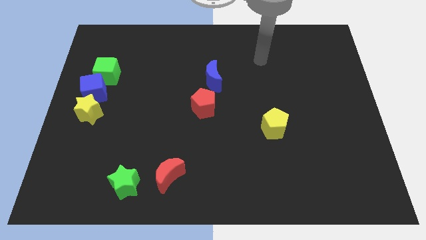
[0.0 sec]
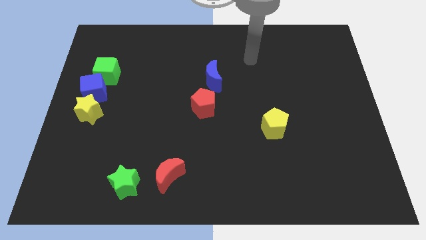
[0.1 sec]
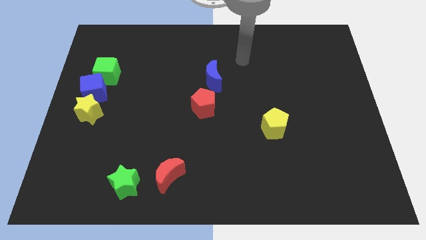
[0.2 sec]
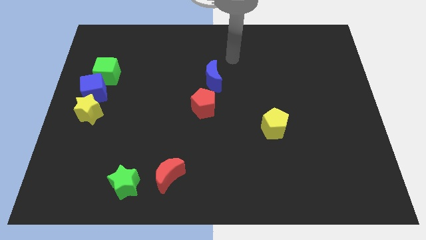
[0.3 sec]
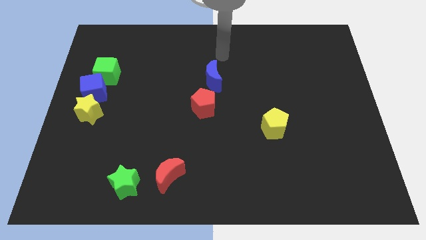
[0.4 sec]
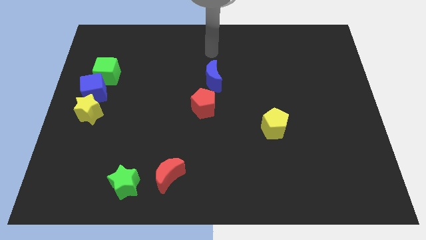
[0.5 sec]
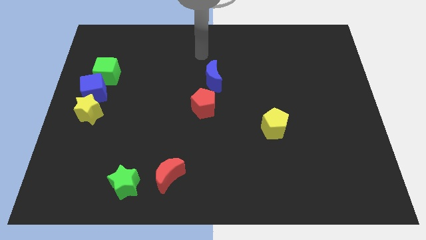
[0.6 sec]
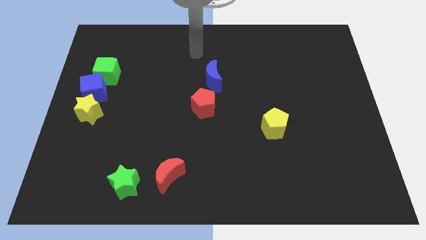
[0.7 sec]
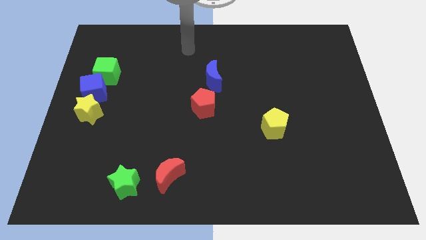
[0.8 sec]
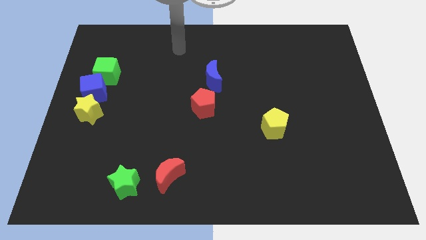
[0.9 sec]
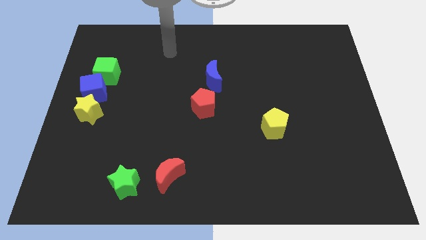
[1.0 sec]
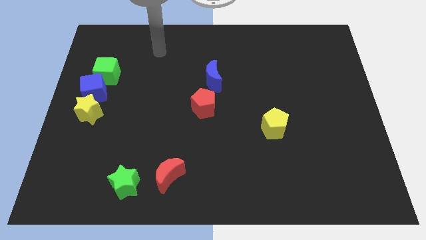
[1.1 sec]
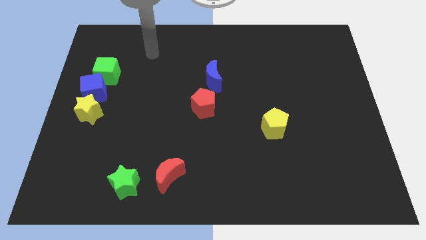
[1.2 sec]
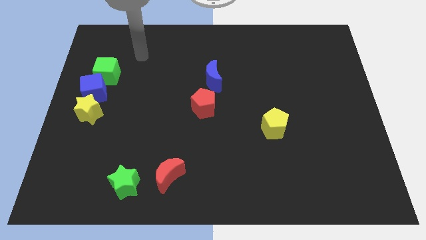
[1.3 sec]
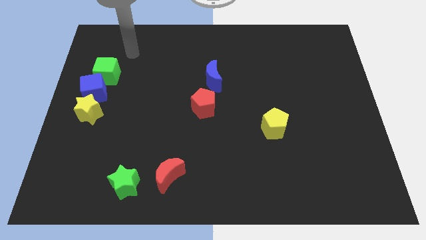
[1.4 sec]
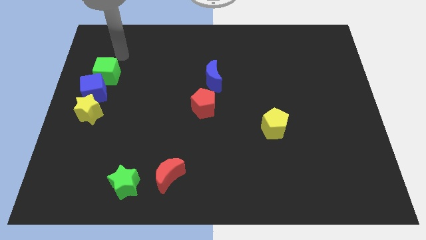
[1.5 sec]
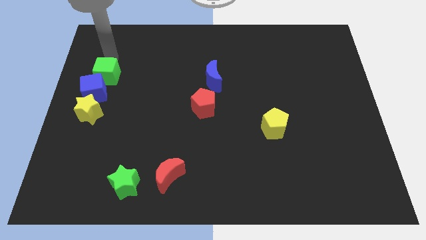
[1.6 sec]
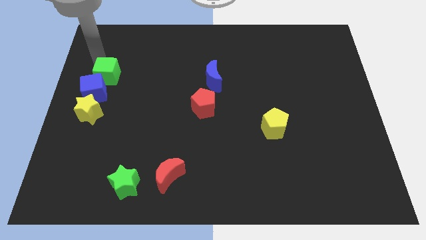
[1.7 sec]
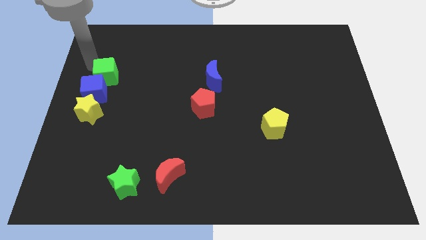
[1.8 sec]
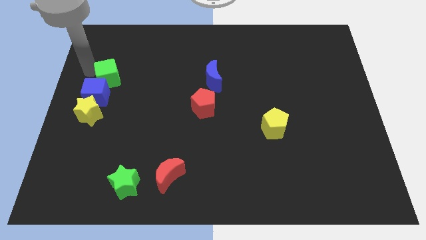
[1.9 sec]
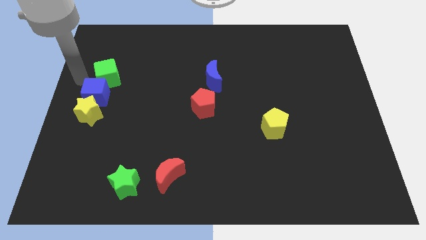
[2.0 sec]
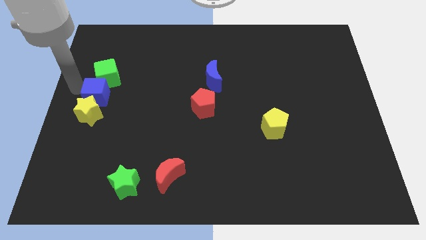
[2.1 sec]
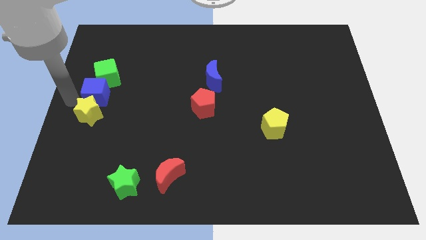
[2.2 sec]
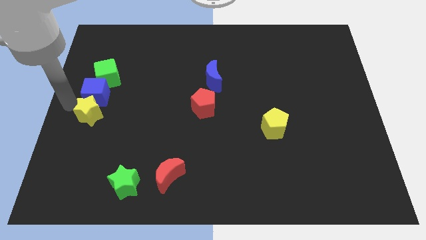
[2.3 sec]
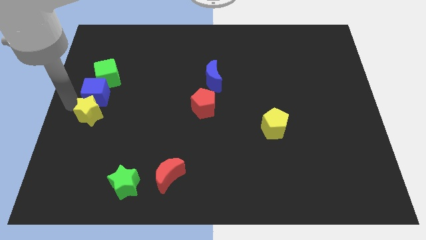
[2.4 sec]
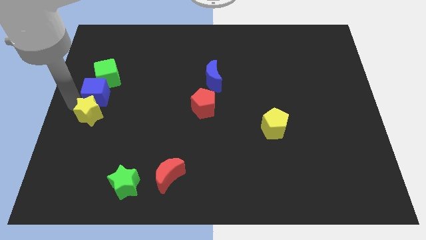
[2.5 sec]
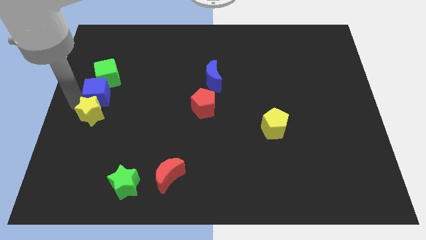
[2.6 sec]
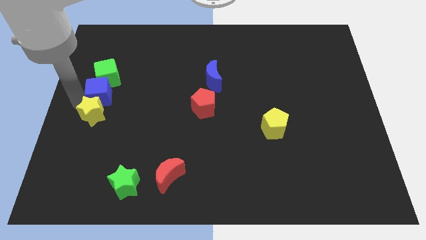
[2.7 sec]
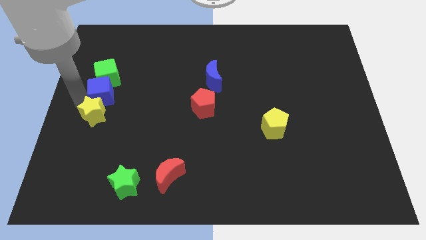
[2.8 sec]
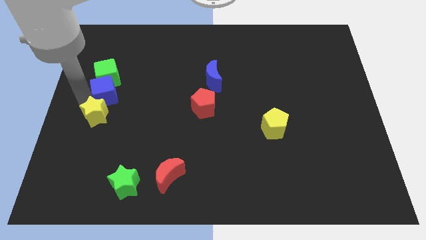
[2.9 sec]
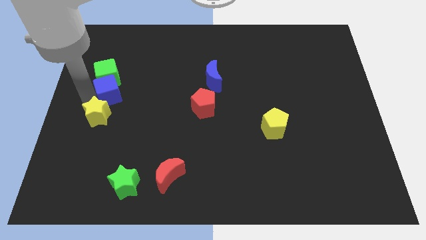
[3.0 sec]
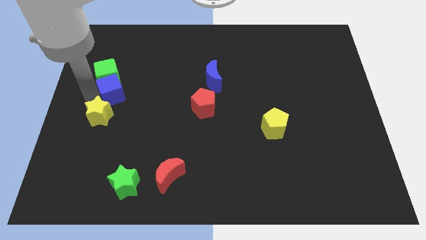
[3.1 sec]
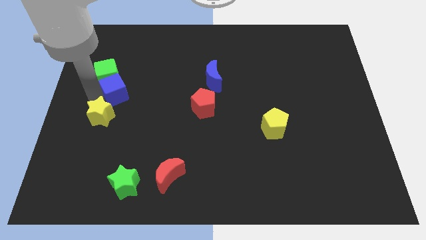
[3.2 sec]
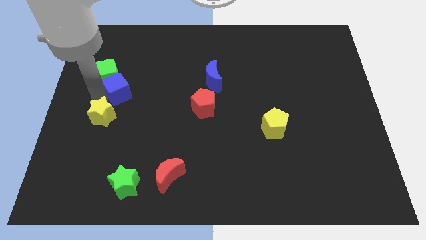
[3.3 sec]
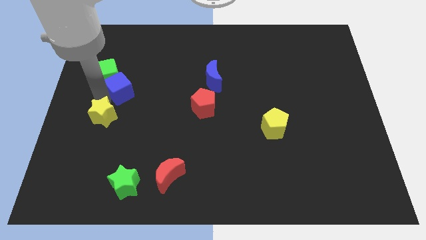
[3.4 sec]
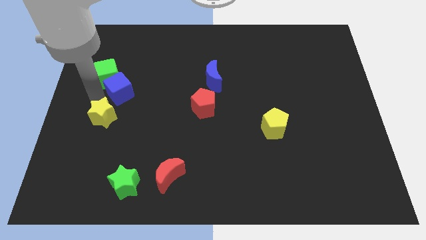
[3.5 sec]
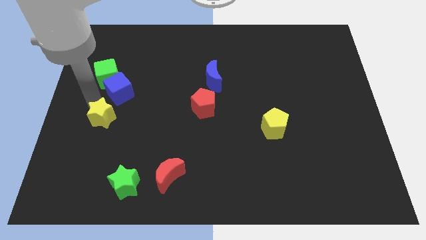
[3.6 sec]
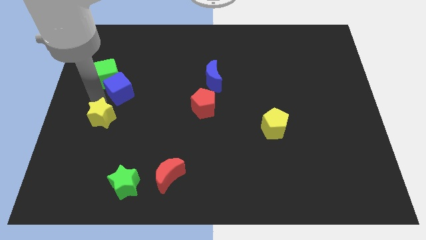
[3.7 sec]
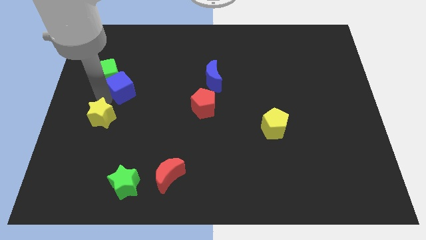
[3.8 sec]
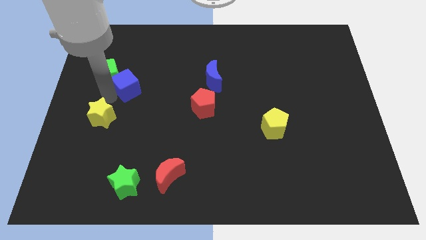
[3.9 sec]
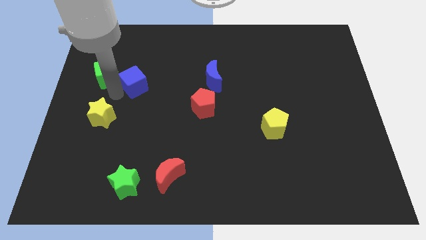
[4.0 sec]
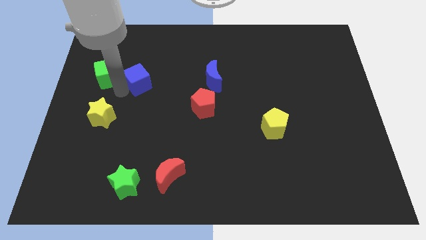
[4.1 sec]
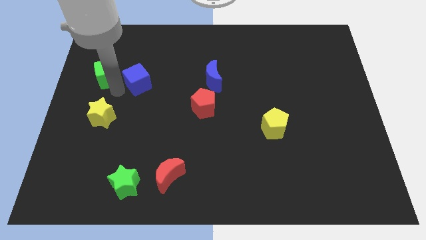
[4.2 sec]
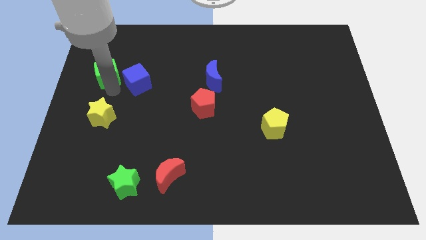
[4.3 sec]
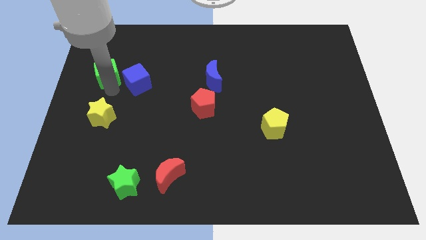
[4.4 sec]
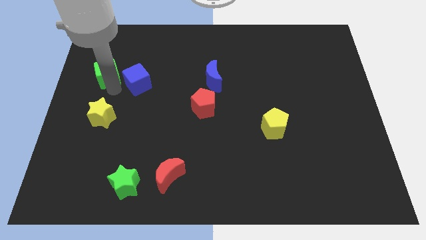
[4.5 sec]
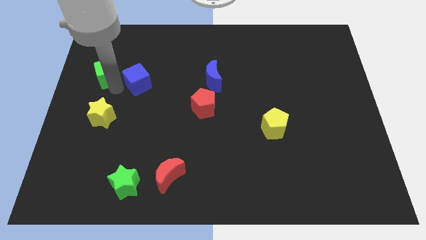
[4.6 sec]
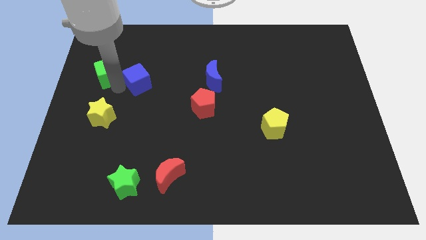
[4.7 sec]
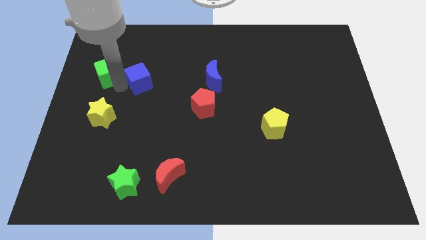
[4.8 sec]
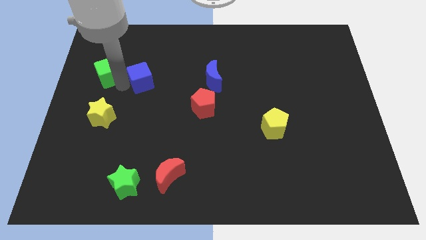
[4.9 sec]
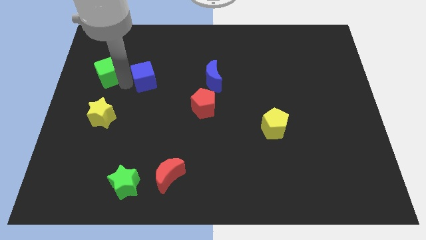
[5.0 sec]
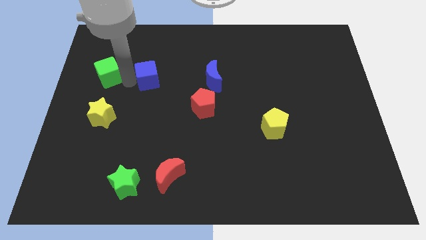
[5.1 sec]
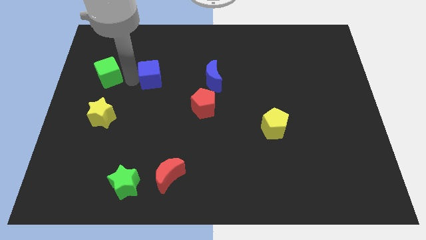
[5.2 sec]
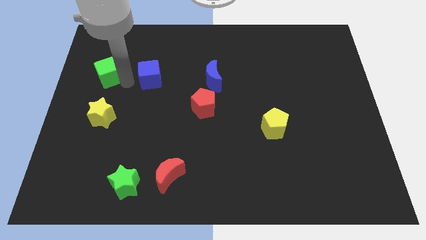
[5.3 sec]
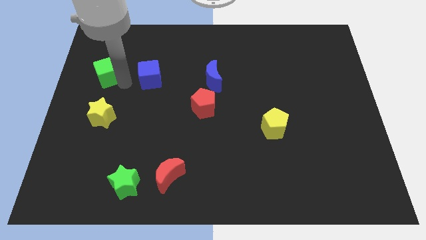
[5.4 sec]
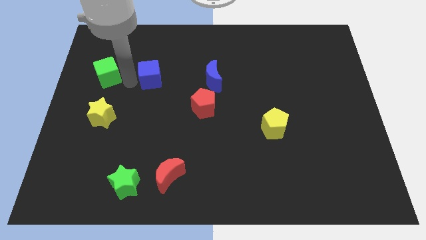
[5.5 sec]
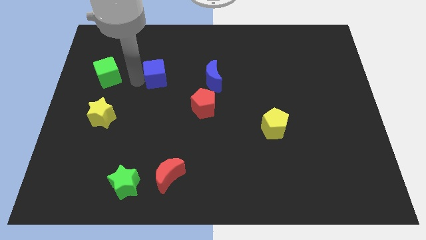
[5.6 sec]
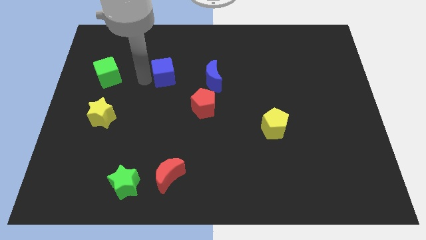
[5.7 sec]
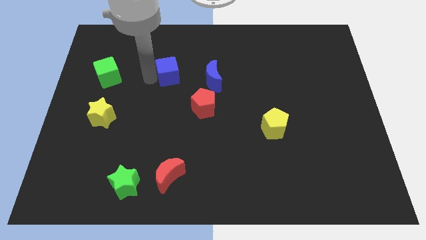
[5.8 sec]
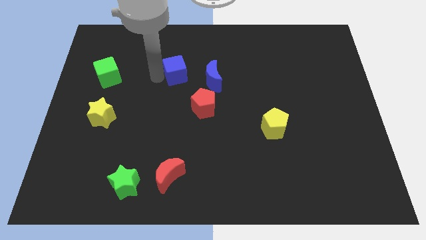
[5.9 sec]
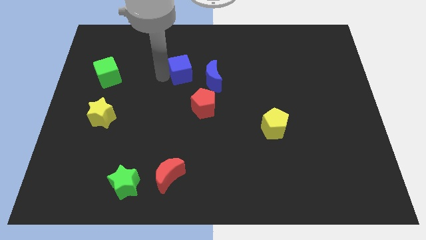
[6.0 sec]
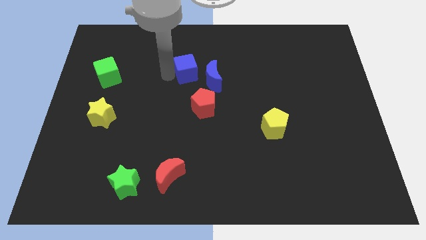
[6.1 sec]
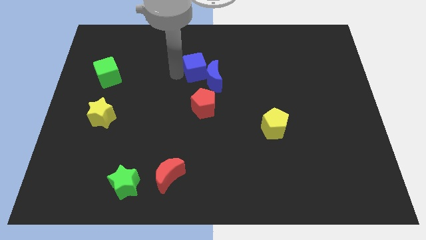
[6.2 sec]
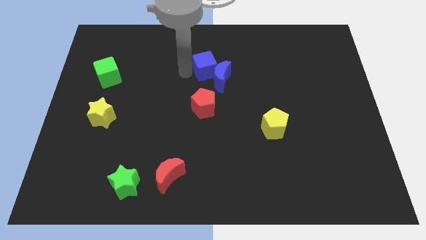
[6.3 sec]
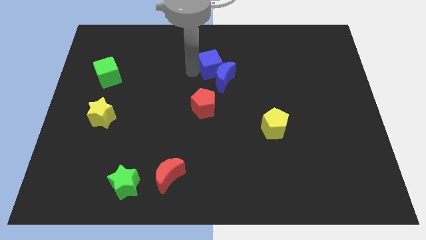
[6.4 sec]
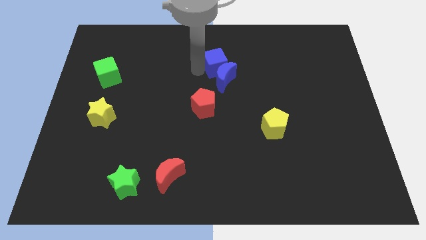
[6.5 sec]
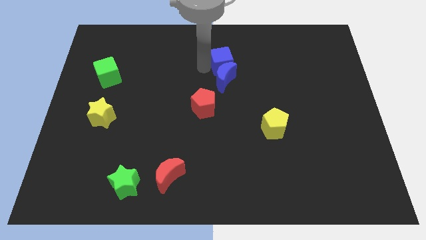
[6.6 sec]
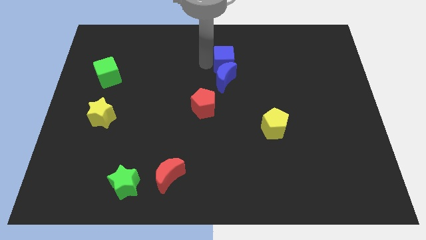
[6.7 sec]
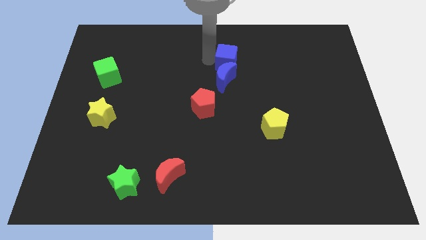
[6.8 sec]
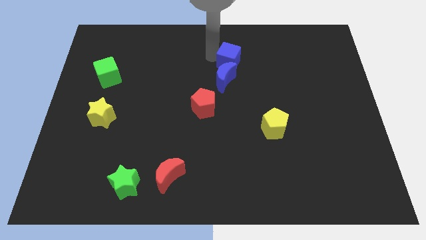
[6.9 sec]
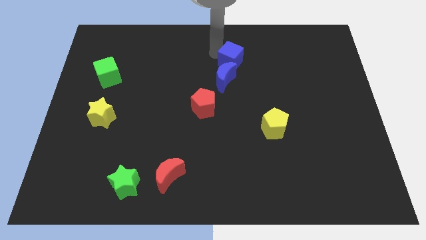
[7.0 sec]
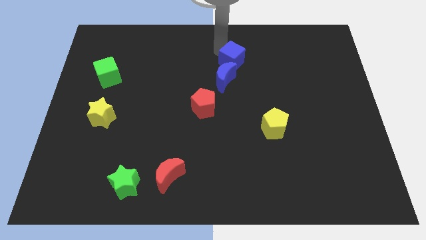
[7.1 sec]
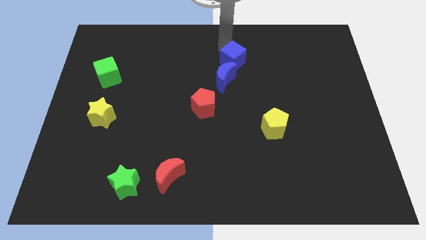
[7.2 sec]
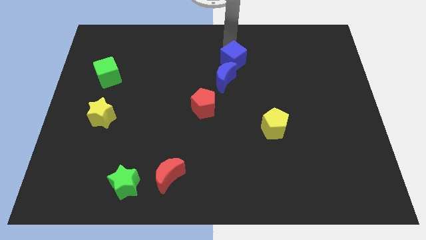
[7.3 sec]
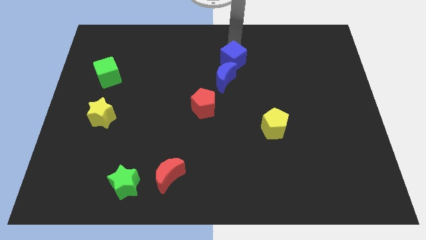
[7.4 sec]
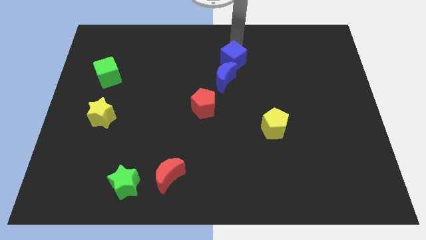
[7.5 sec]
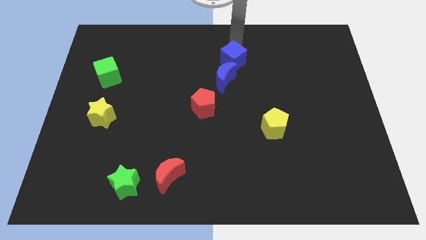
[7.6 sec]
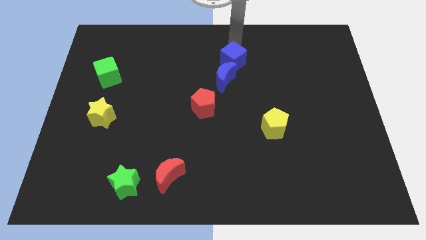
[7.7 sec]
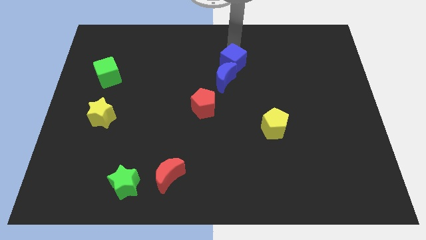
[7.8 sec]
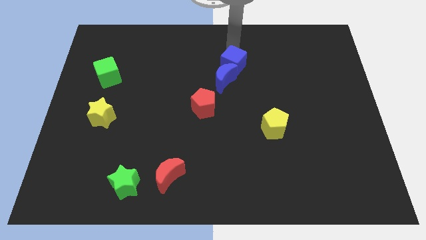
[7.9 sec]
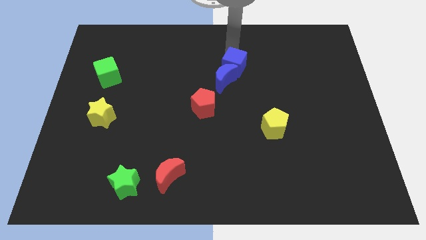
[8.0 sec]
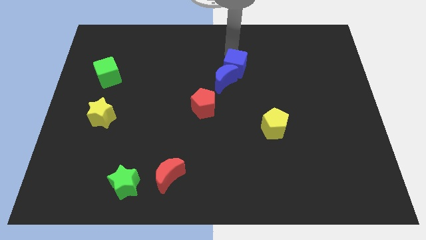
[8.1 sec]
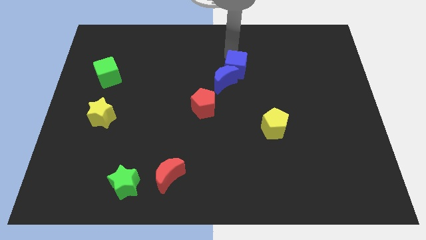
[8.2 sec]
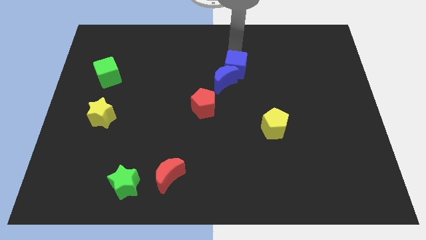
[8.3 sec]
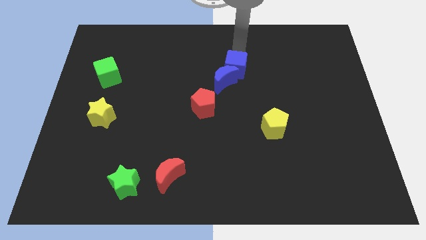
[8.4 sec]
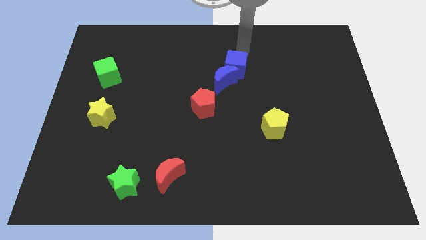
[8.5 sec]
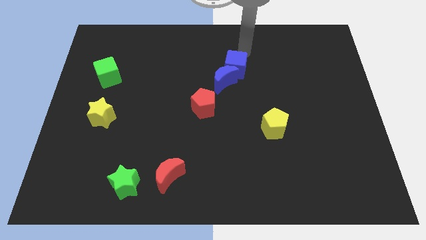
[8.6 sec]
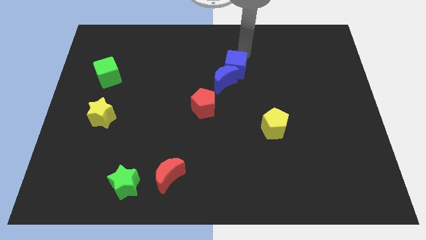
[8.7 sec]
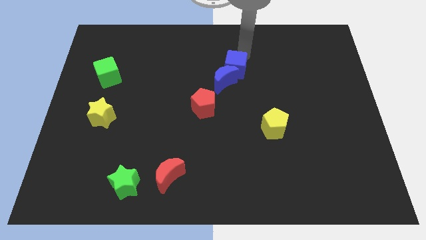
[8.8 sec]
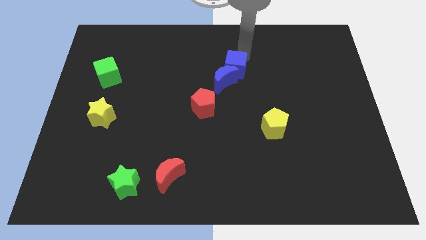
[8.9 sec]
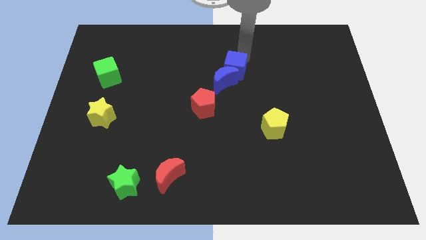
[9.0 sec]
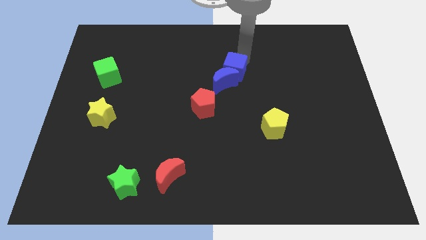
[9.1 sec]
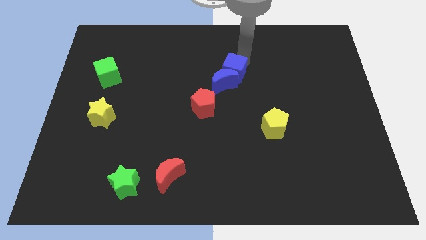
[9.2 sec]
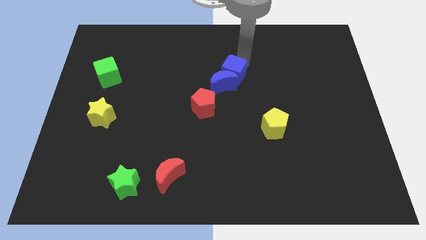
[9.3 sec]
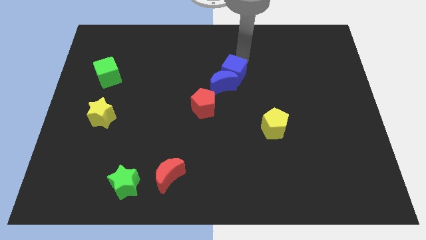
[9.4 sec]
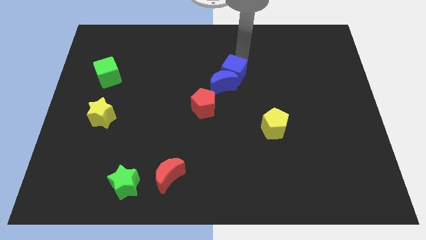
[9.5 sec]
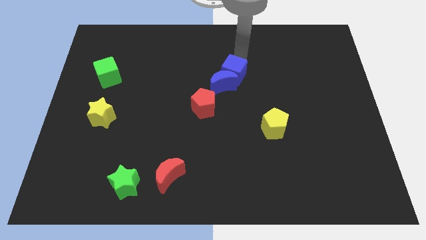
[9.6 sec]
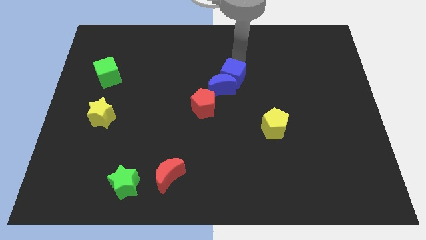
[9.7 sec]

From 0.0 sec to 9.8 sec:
slide the blue cube to the top right side of the red pentagon
